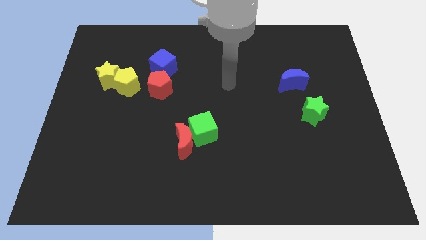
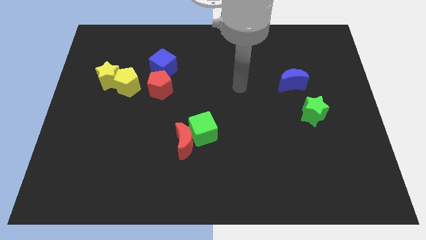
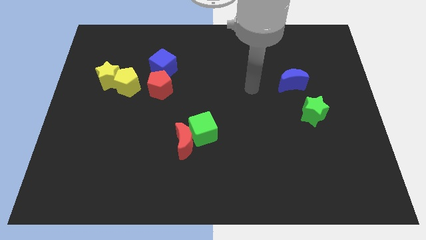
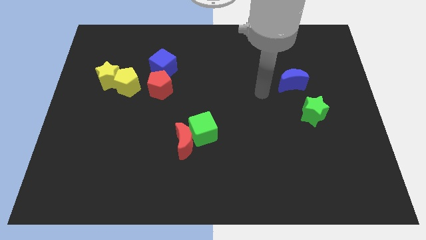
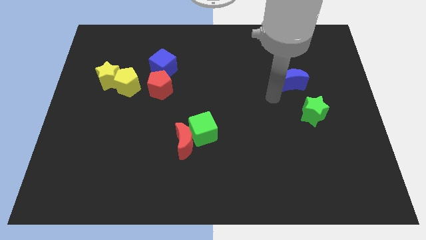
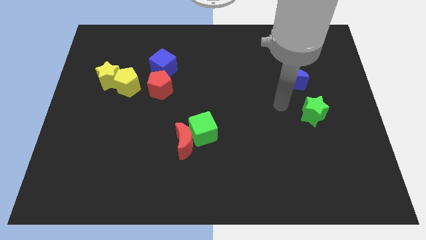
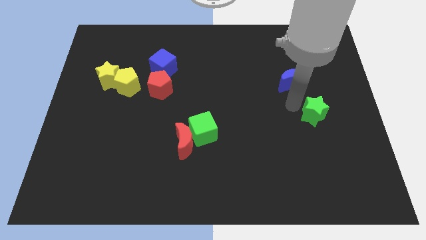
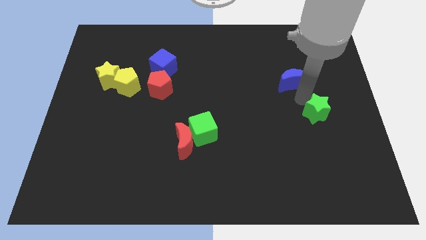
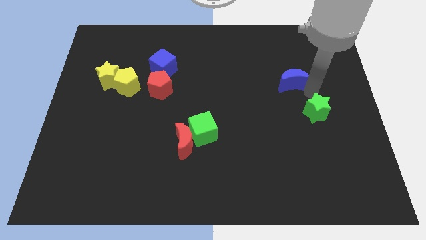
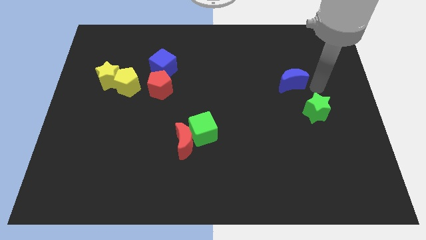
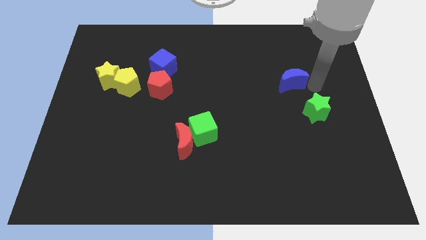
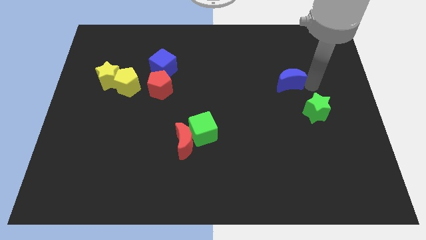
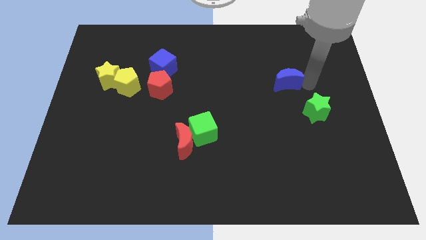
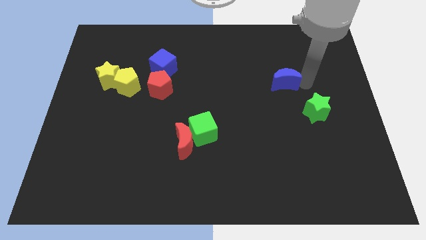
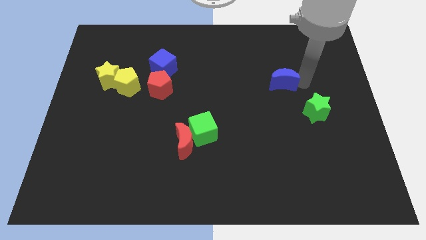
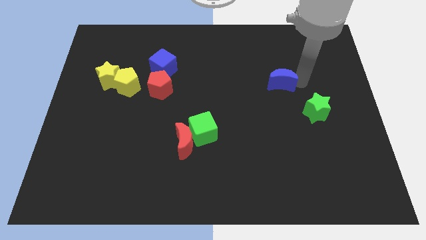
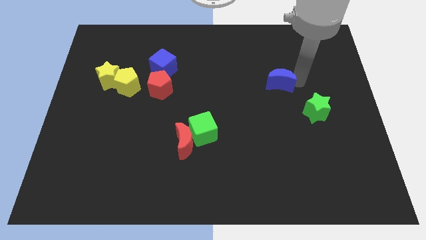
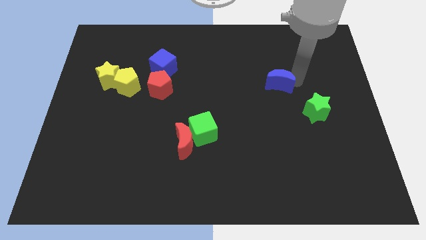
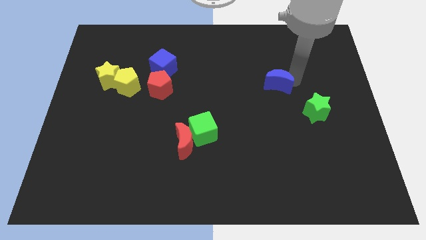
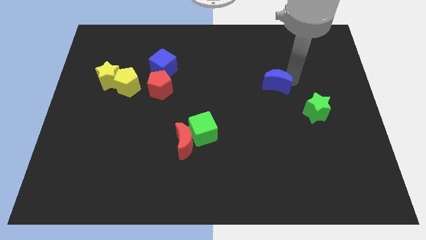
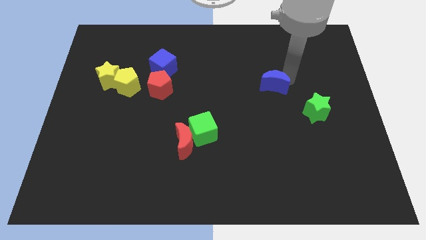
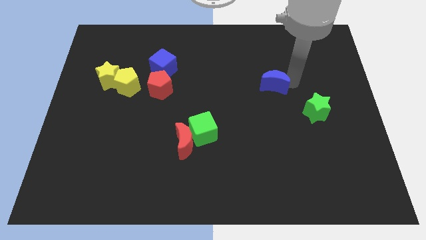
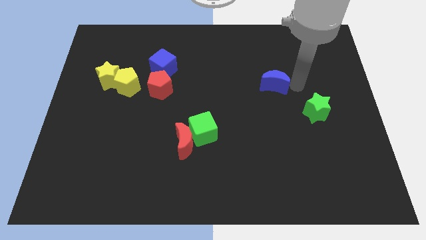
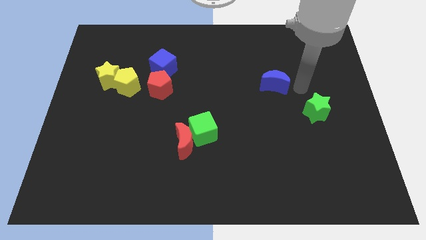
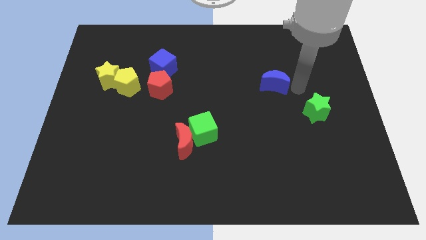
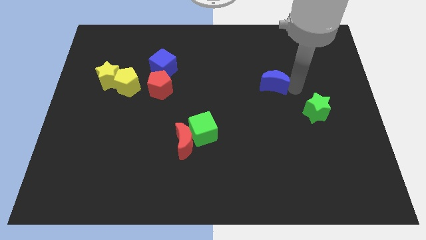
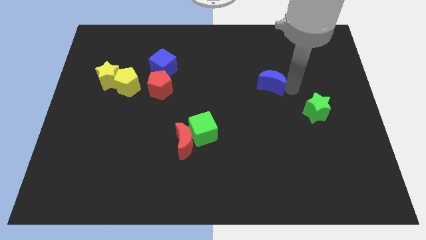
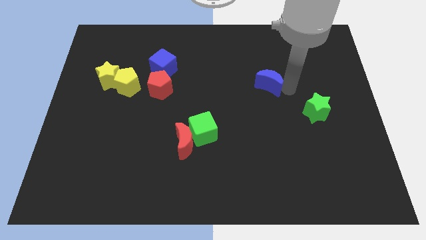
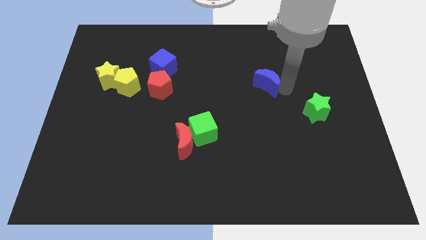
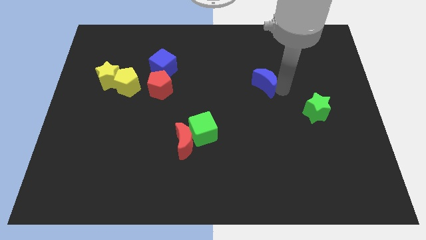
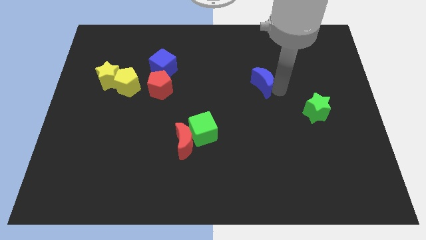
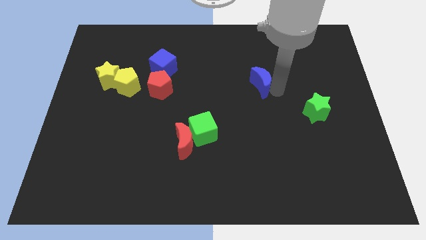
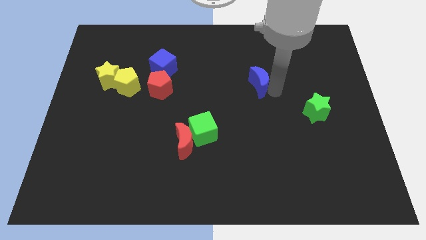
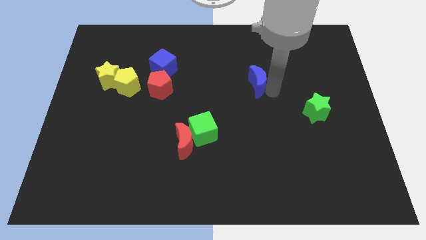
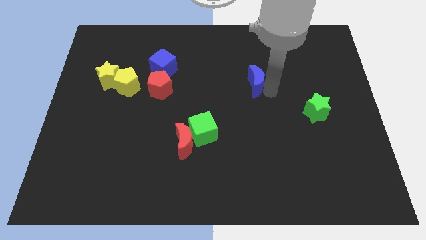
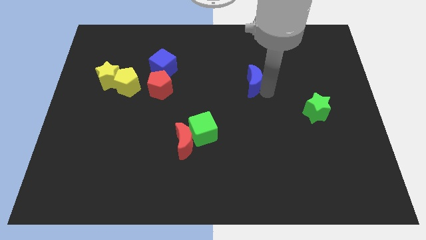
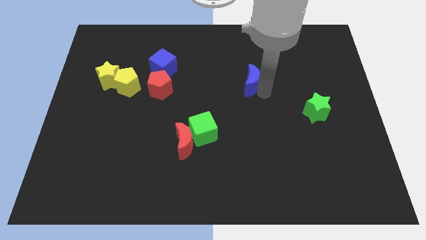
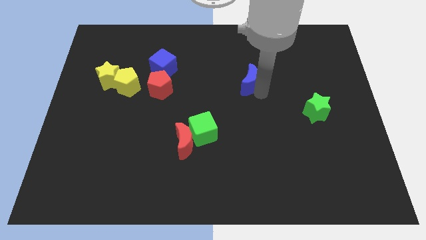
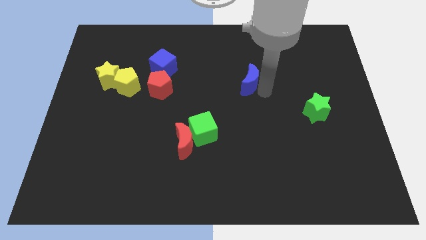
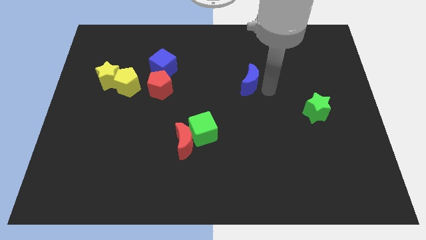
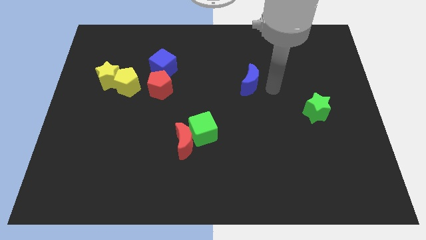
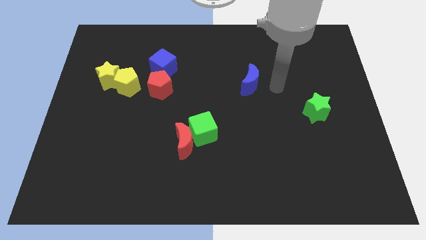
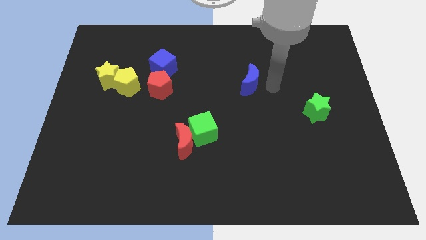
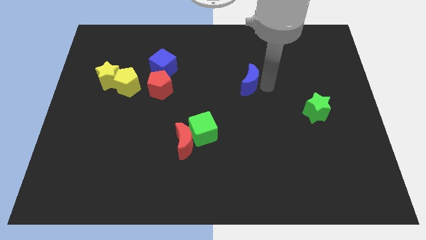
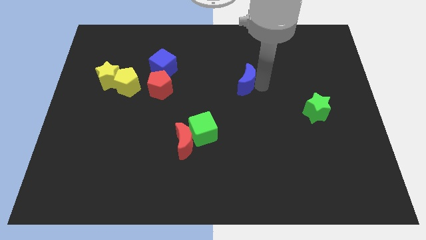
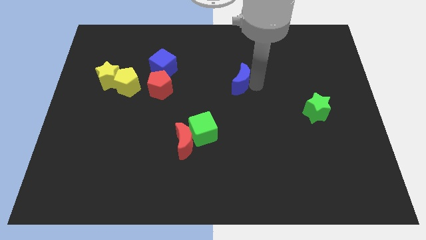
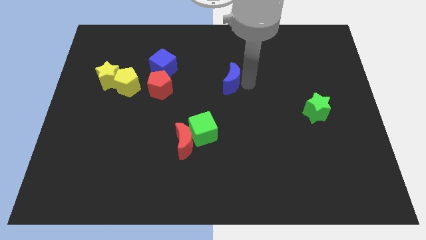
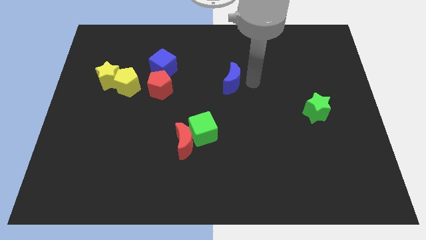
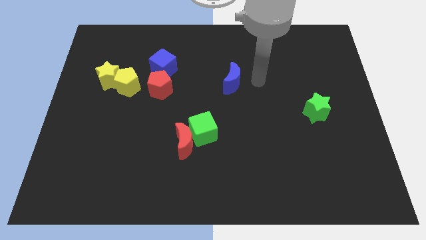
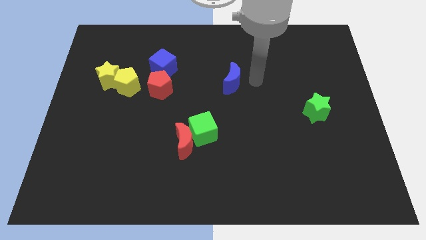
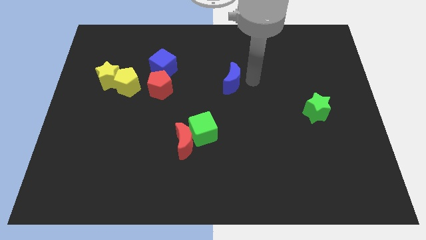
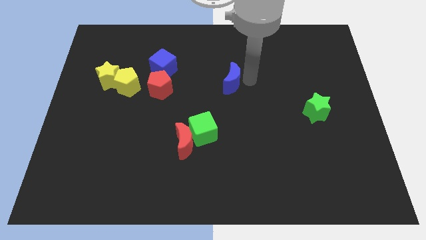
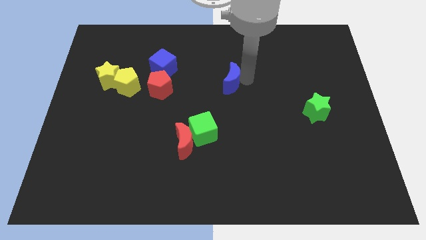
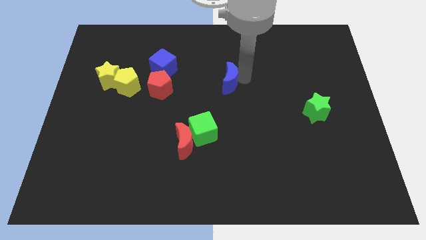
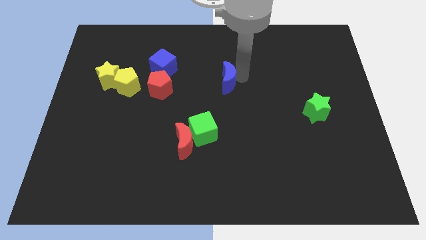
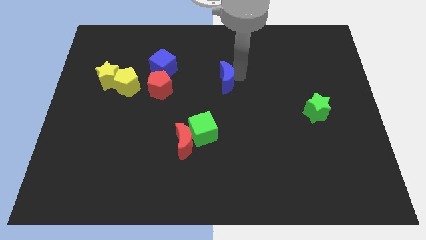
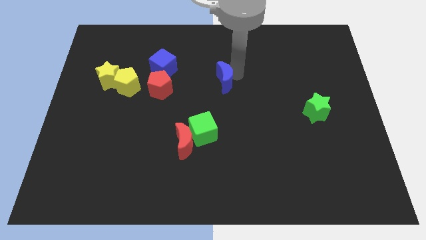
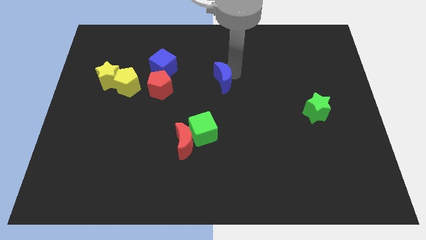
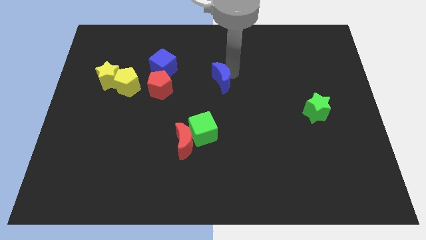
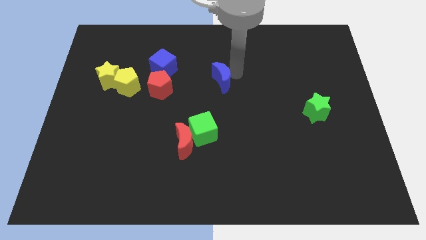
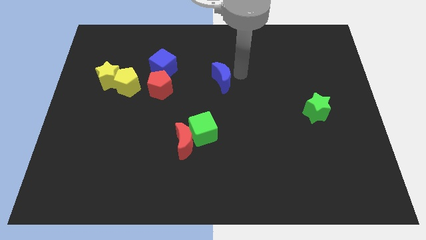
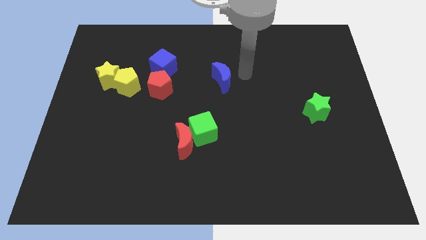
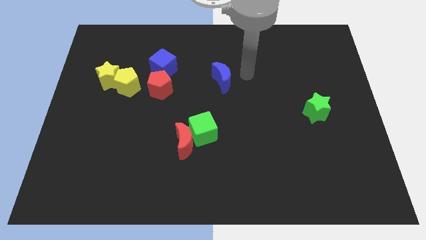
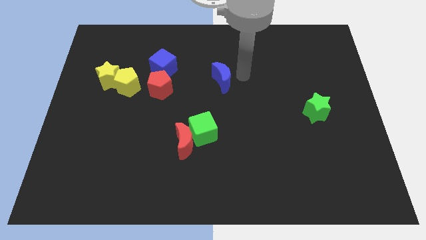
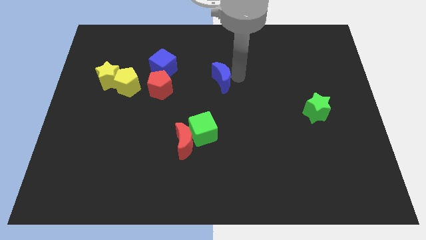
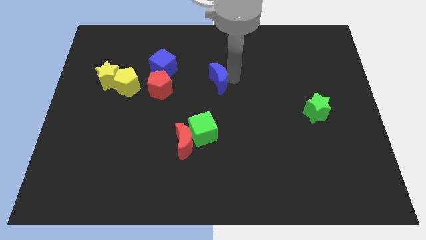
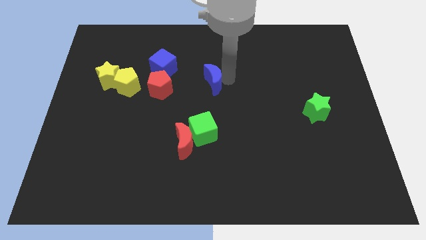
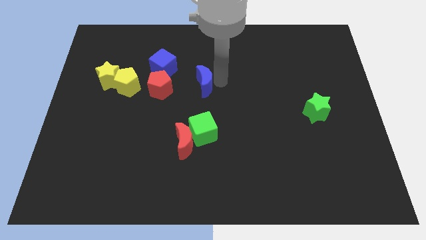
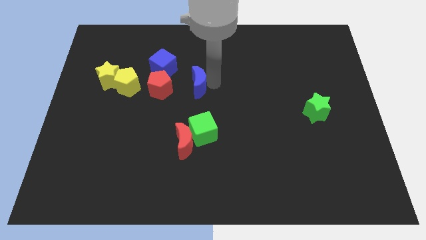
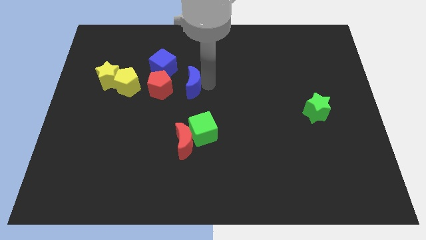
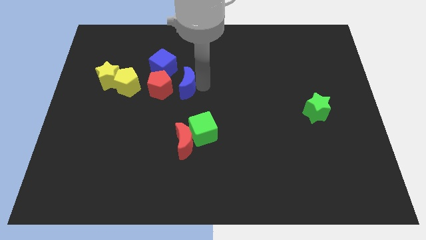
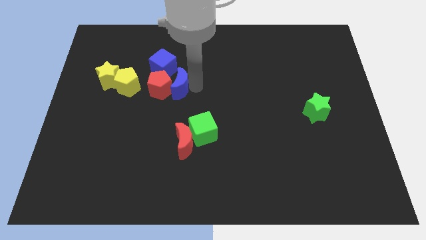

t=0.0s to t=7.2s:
put the blue moon next to the red pentagon

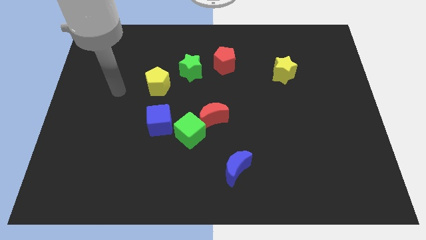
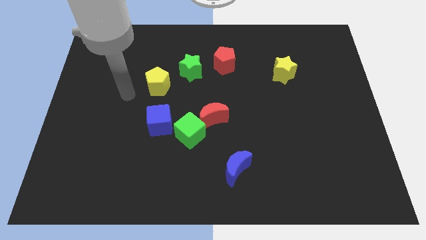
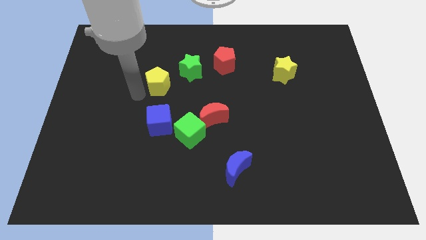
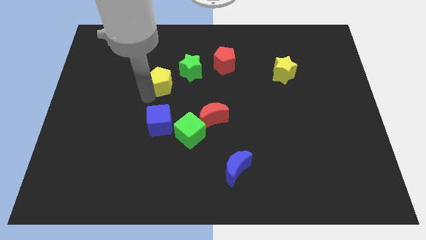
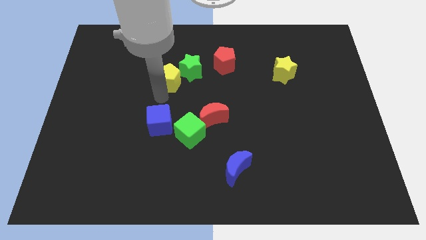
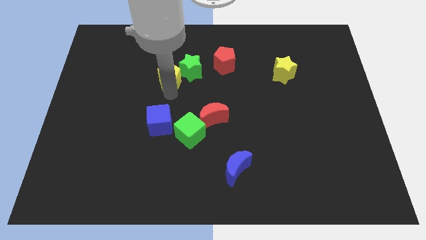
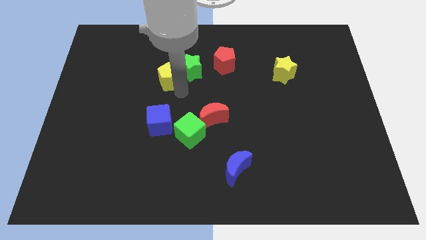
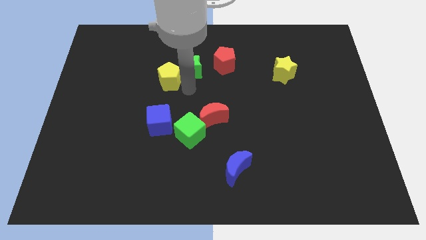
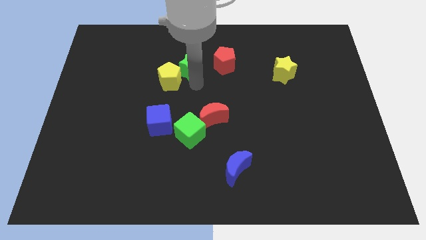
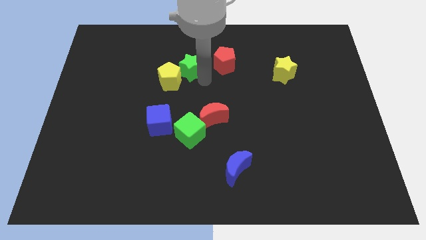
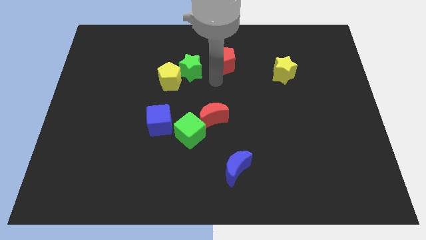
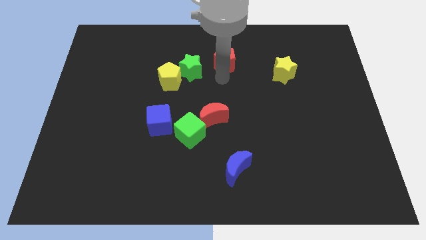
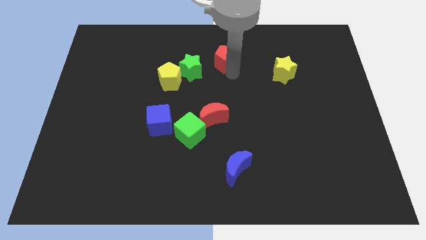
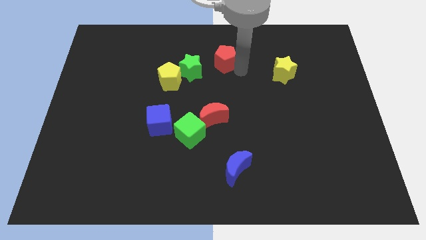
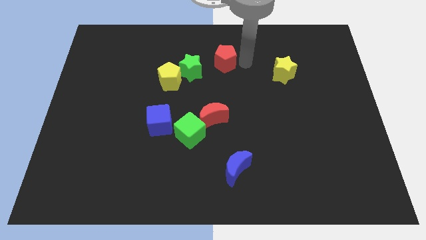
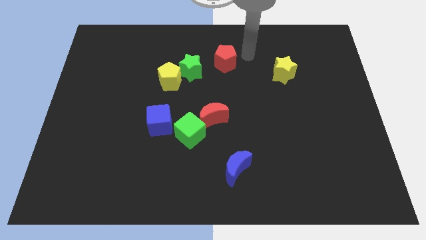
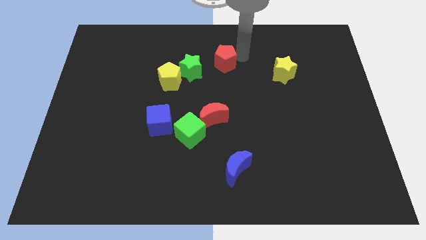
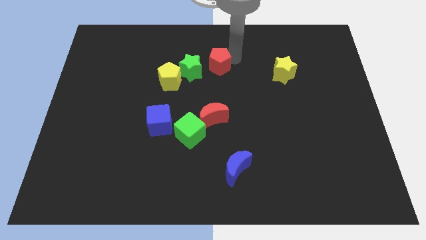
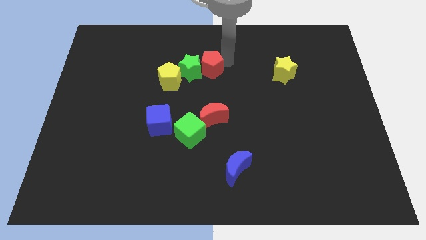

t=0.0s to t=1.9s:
move the red pentagon towards the green star
